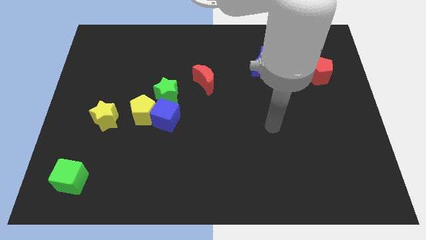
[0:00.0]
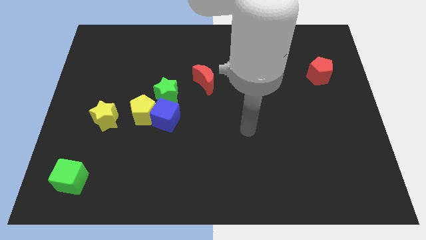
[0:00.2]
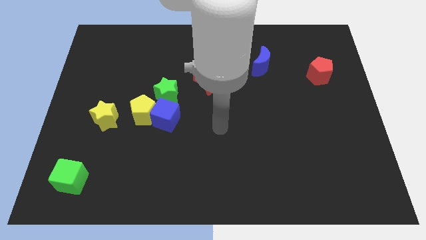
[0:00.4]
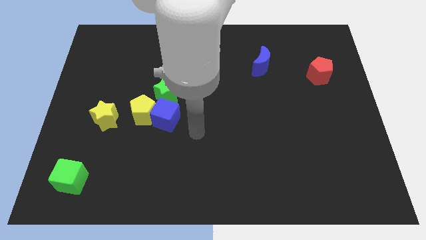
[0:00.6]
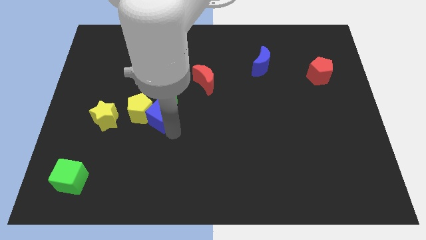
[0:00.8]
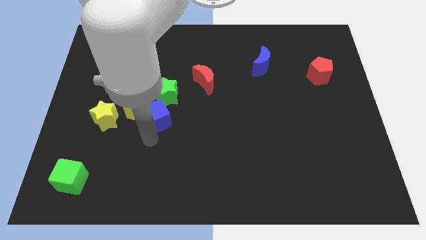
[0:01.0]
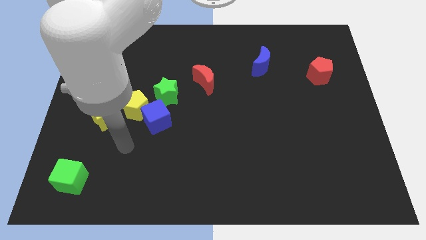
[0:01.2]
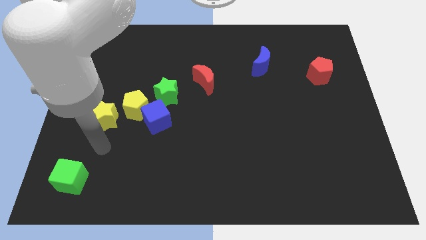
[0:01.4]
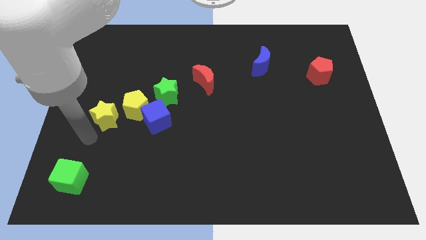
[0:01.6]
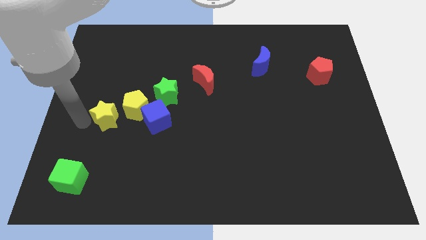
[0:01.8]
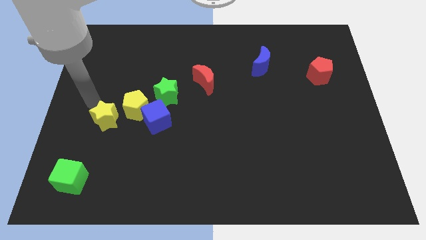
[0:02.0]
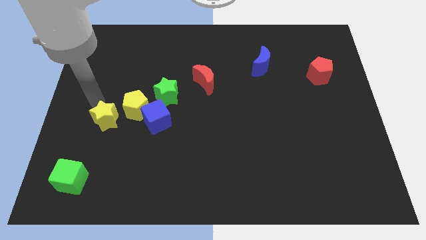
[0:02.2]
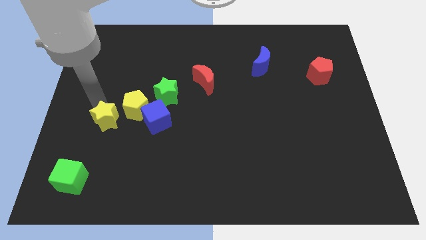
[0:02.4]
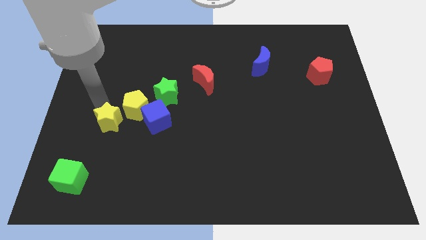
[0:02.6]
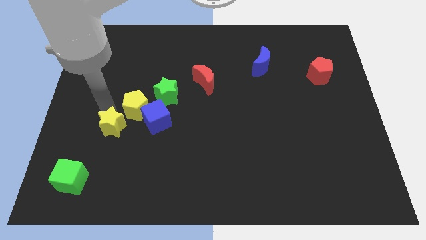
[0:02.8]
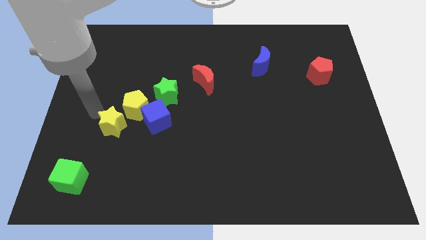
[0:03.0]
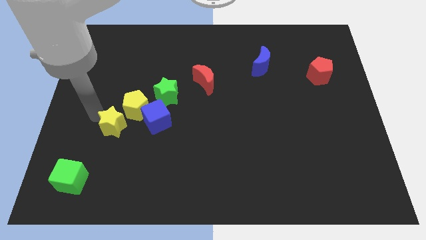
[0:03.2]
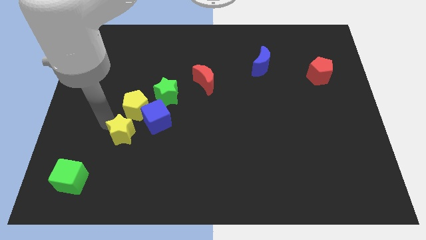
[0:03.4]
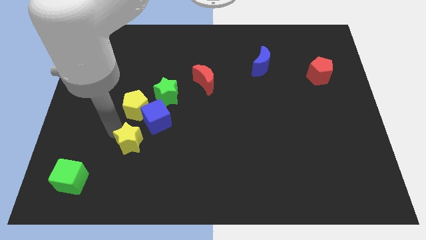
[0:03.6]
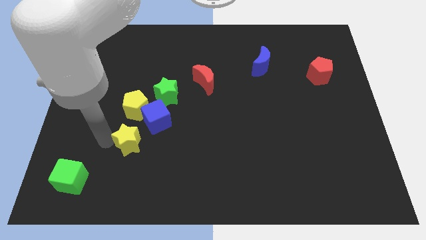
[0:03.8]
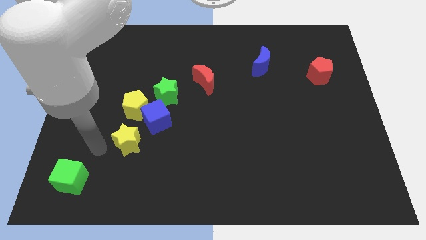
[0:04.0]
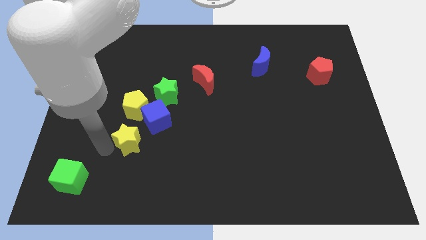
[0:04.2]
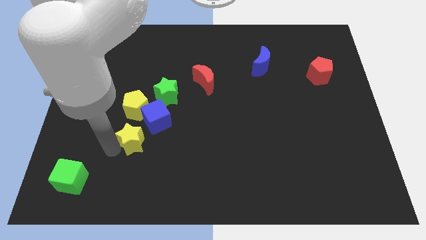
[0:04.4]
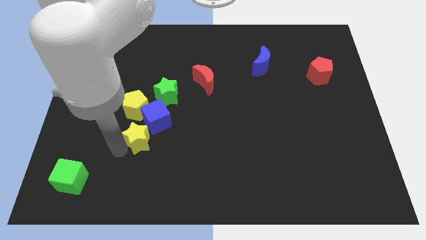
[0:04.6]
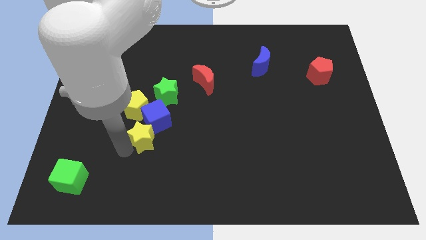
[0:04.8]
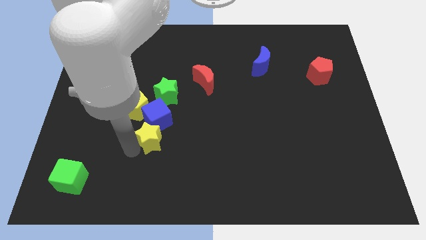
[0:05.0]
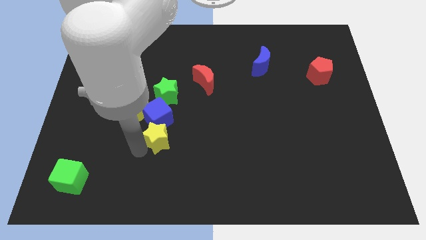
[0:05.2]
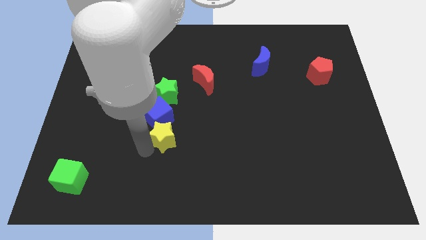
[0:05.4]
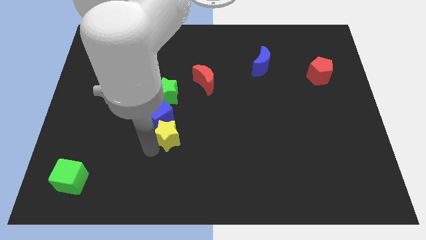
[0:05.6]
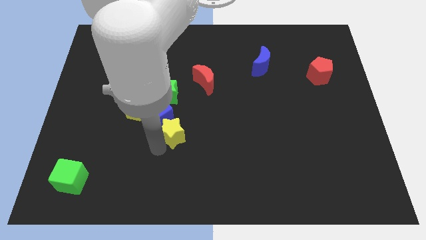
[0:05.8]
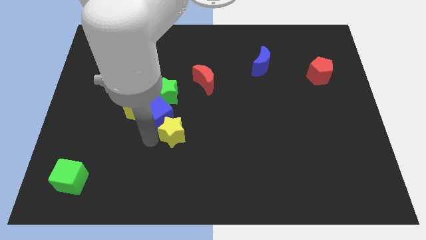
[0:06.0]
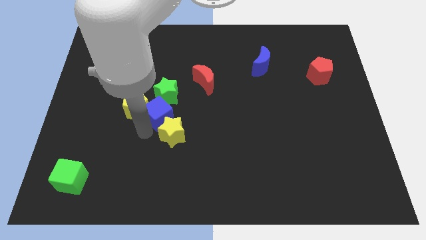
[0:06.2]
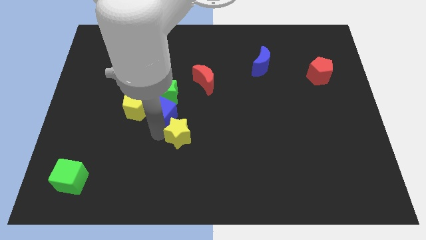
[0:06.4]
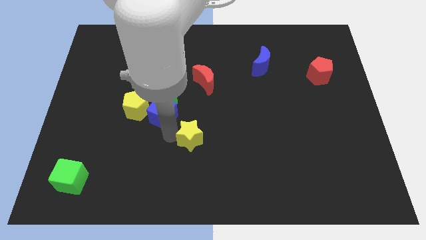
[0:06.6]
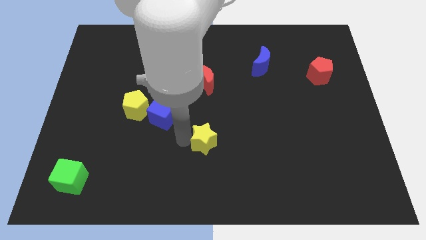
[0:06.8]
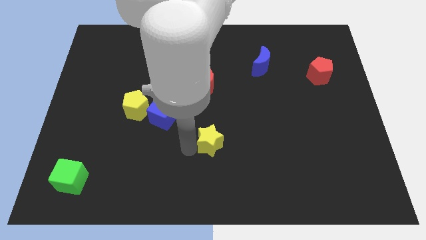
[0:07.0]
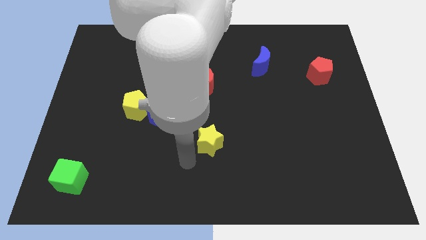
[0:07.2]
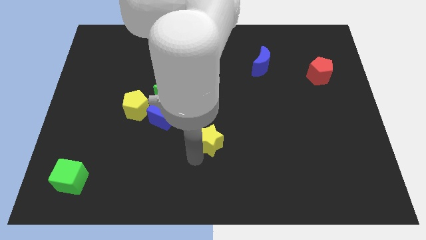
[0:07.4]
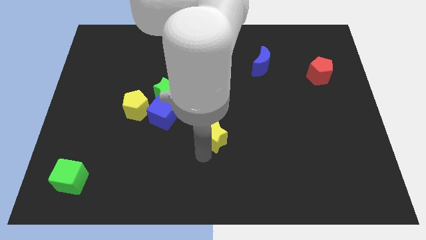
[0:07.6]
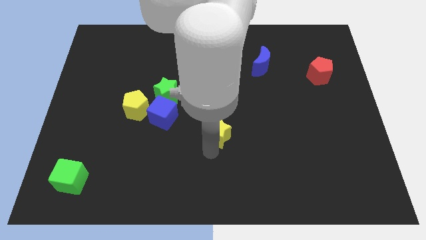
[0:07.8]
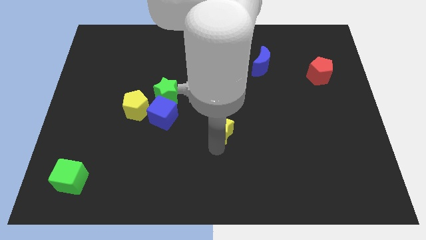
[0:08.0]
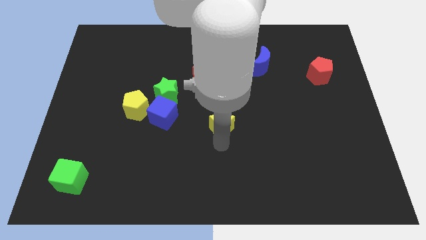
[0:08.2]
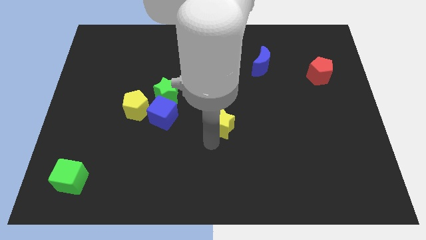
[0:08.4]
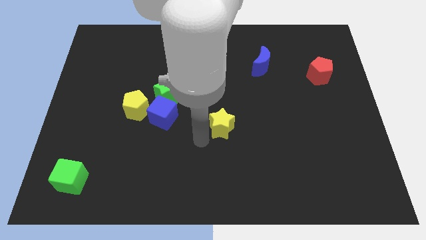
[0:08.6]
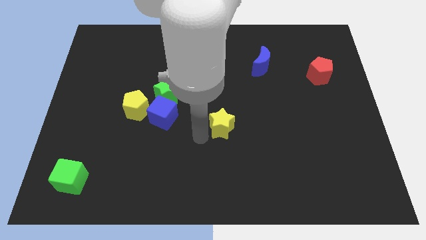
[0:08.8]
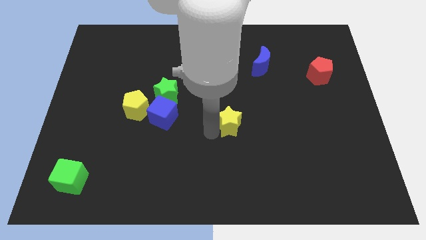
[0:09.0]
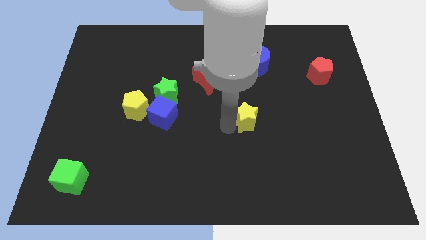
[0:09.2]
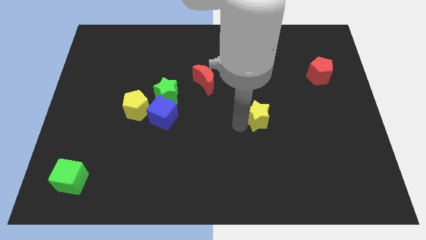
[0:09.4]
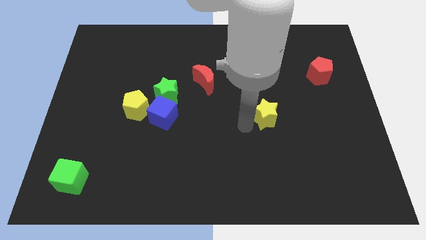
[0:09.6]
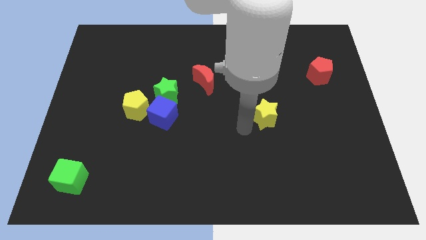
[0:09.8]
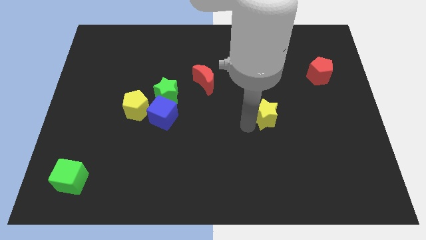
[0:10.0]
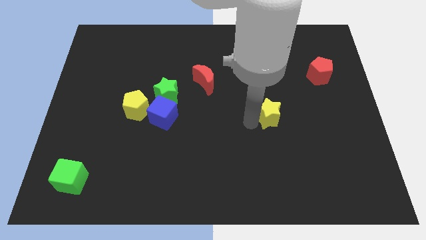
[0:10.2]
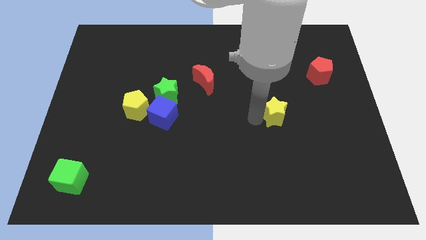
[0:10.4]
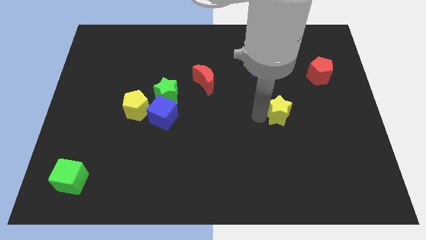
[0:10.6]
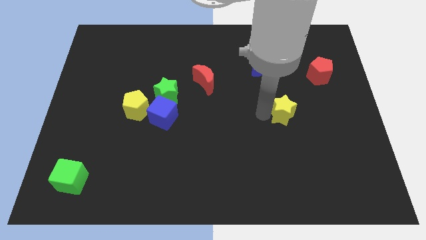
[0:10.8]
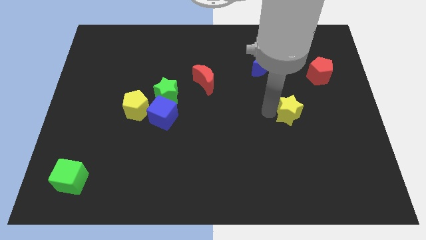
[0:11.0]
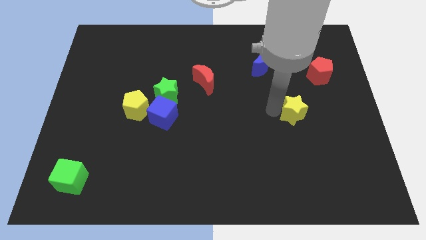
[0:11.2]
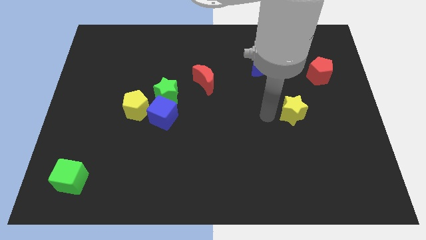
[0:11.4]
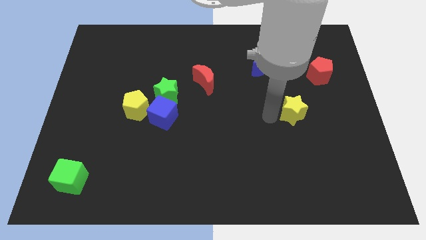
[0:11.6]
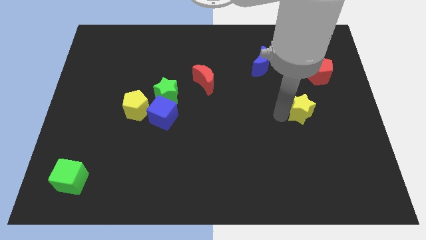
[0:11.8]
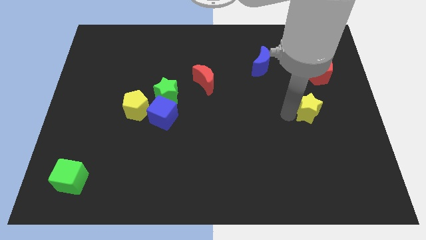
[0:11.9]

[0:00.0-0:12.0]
slide the yellow star below the red pentagon
